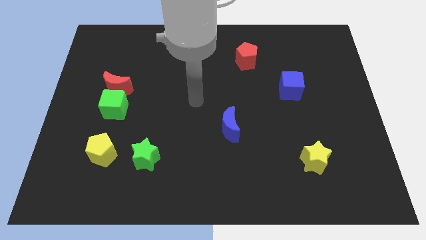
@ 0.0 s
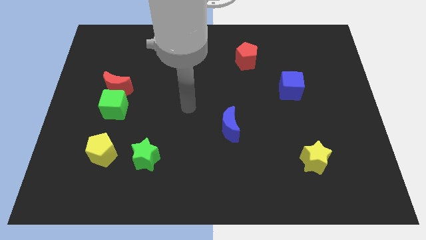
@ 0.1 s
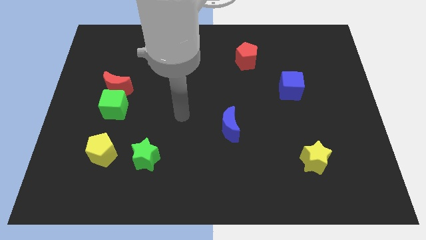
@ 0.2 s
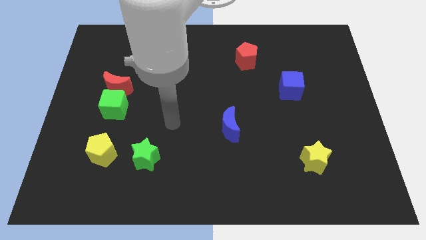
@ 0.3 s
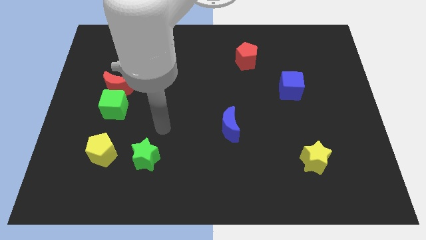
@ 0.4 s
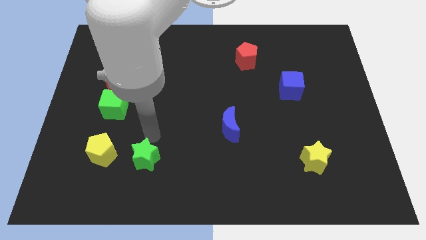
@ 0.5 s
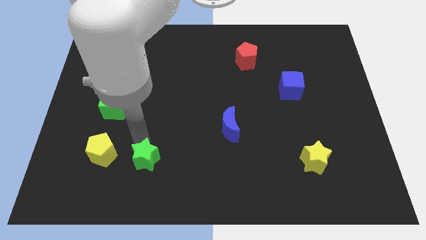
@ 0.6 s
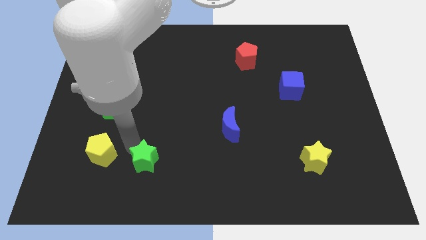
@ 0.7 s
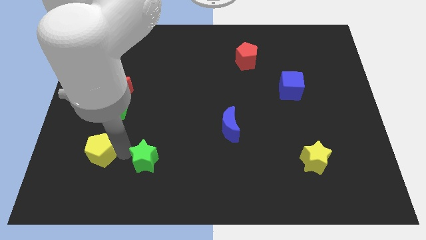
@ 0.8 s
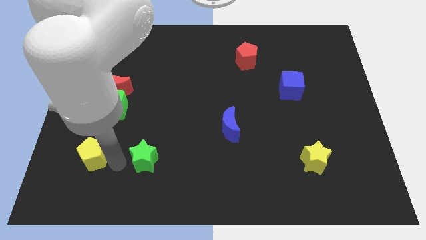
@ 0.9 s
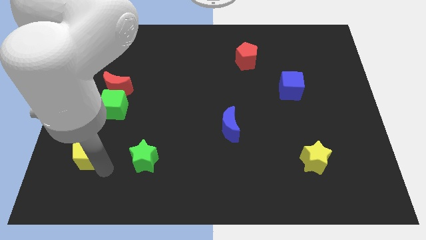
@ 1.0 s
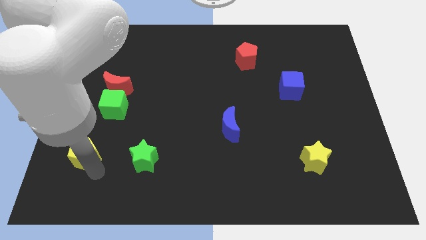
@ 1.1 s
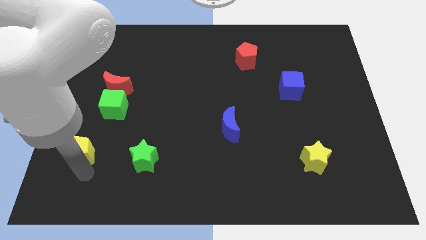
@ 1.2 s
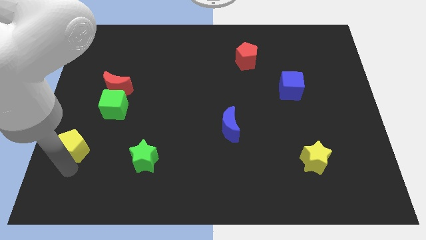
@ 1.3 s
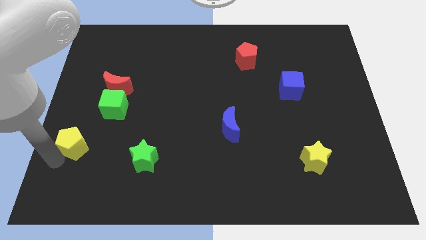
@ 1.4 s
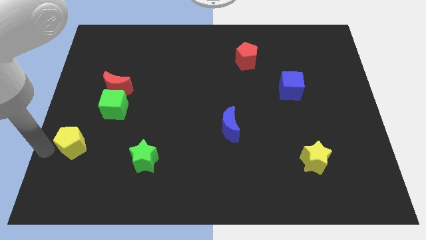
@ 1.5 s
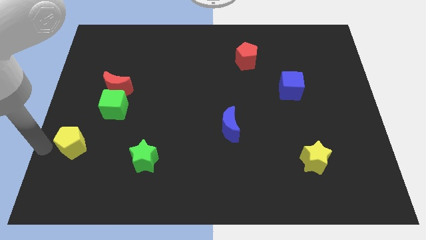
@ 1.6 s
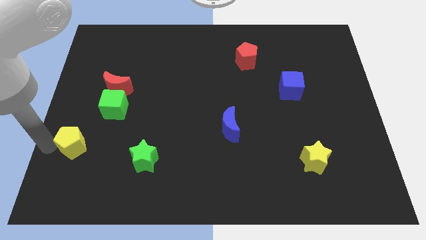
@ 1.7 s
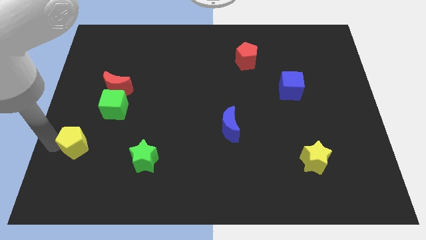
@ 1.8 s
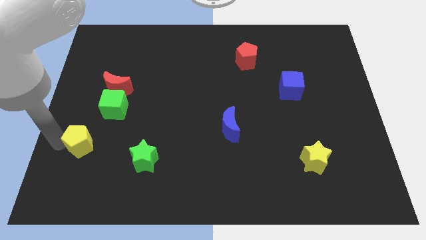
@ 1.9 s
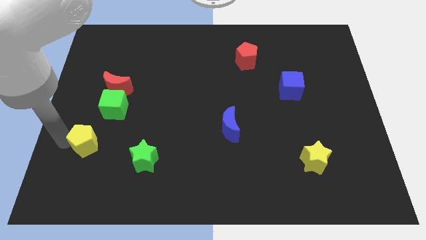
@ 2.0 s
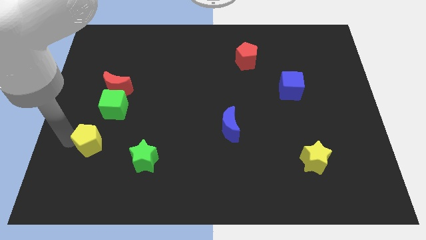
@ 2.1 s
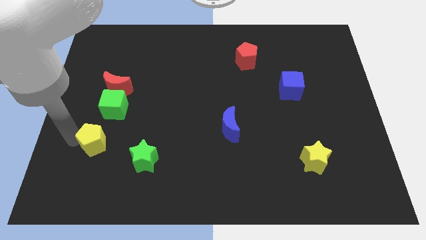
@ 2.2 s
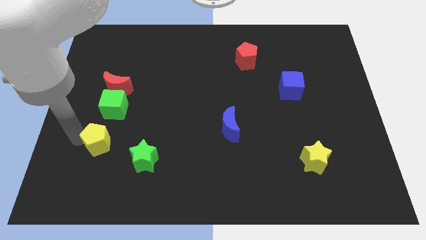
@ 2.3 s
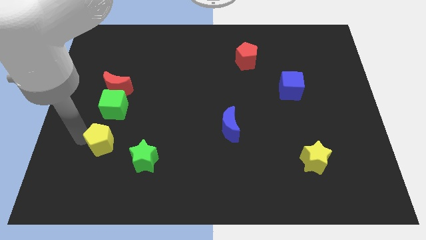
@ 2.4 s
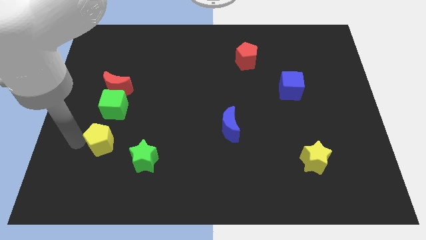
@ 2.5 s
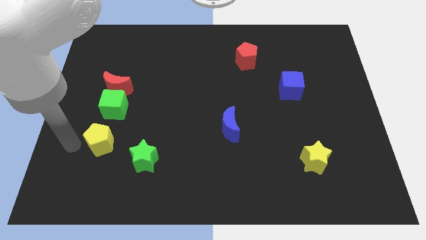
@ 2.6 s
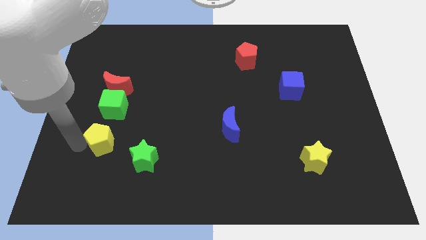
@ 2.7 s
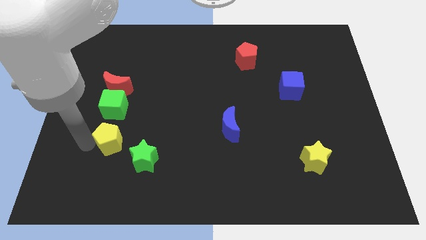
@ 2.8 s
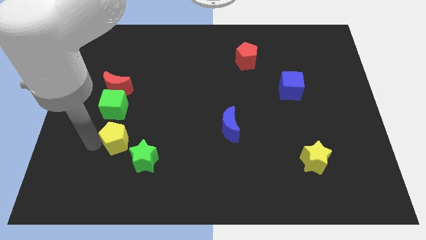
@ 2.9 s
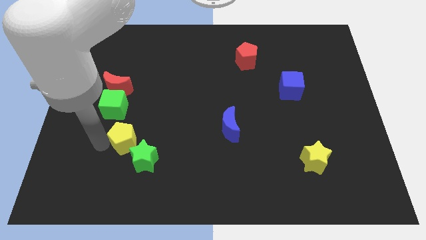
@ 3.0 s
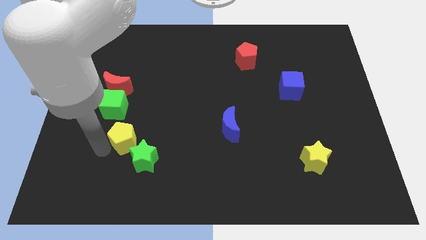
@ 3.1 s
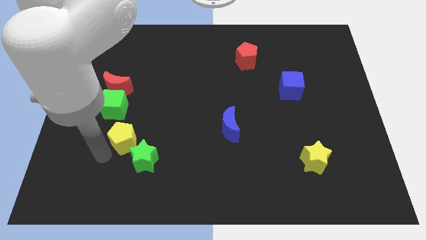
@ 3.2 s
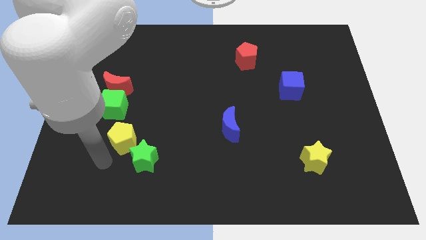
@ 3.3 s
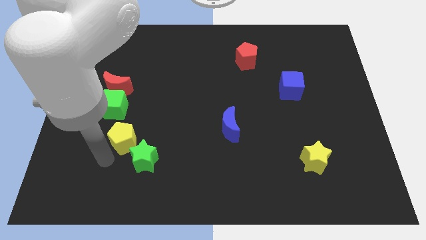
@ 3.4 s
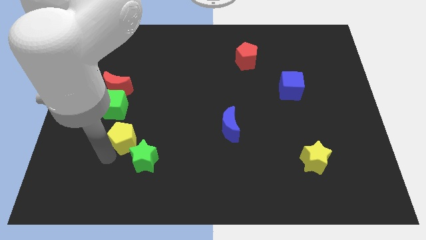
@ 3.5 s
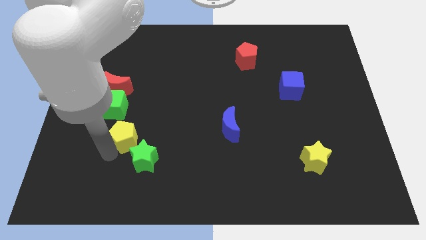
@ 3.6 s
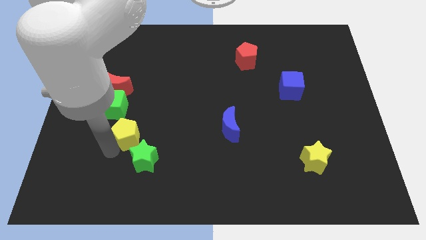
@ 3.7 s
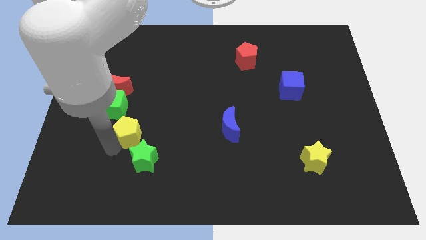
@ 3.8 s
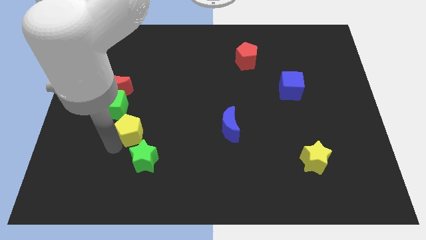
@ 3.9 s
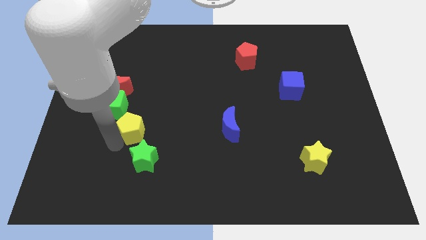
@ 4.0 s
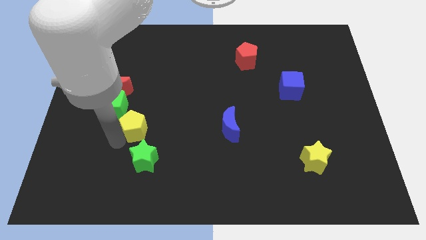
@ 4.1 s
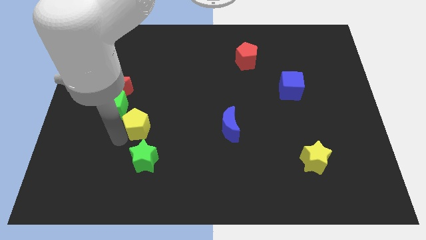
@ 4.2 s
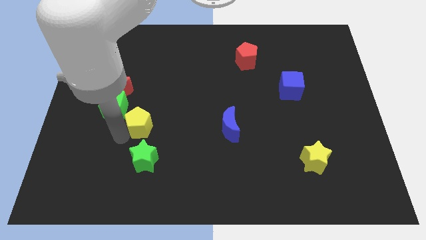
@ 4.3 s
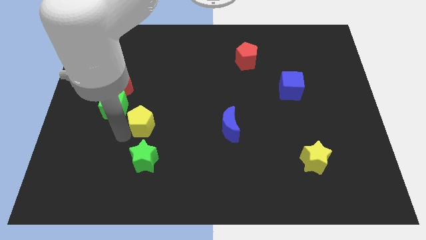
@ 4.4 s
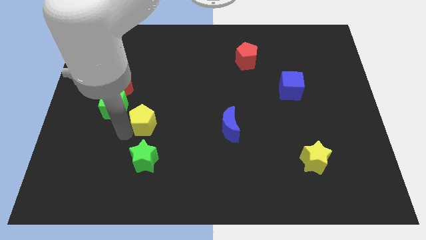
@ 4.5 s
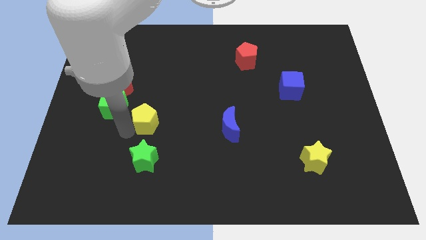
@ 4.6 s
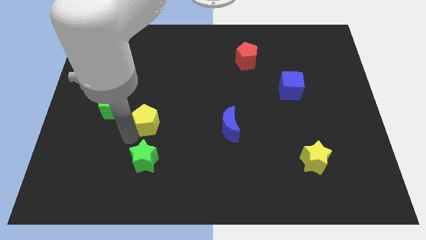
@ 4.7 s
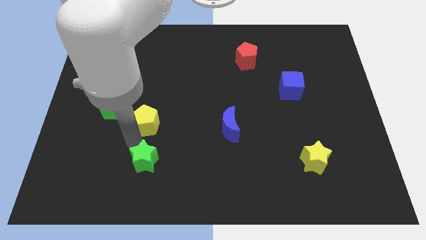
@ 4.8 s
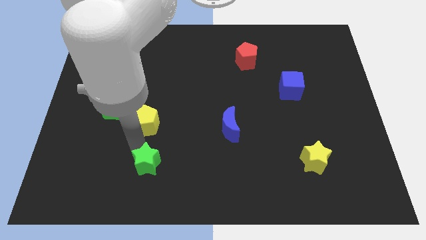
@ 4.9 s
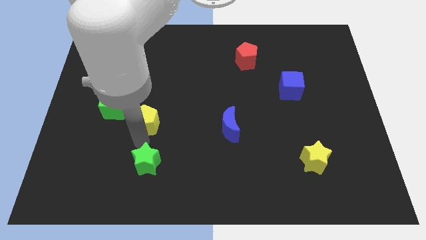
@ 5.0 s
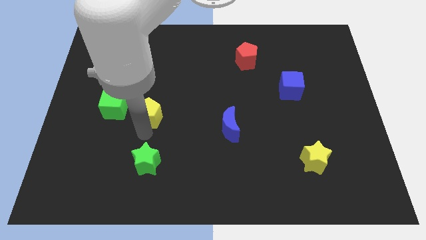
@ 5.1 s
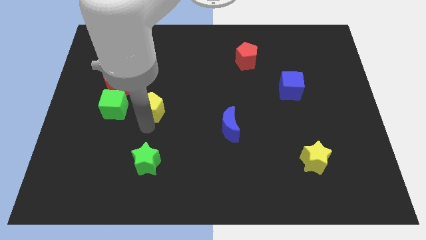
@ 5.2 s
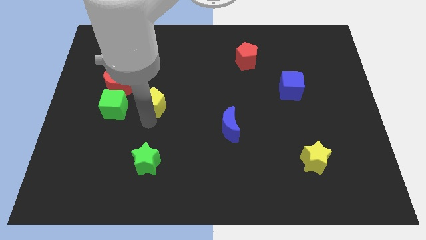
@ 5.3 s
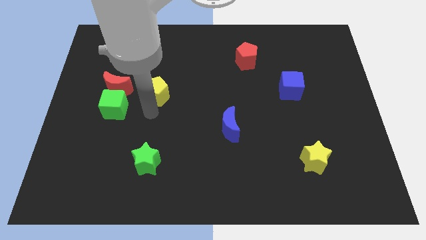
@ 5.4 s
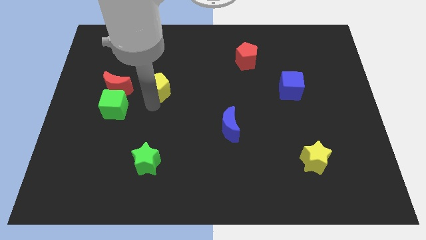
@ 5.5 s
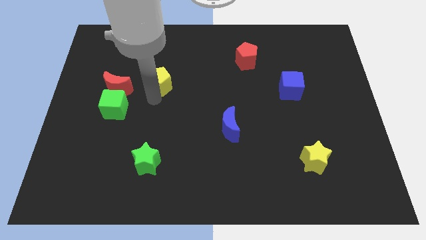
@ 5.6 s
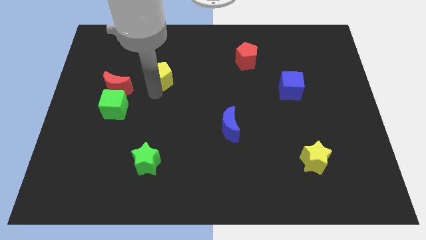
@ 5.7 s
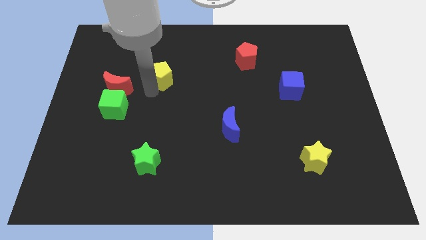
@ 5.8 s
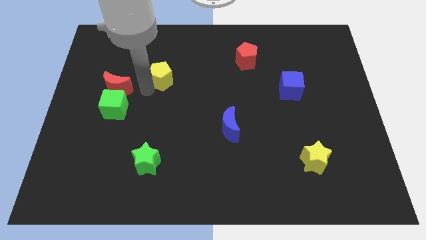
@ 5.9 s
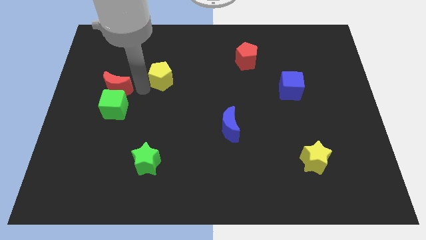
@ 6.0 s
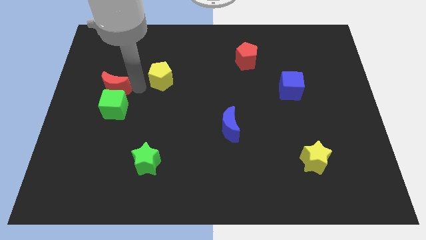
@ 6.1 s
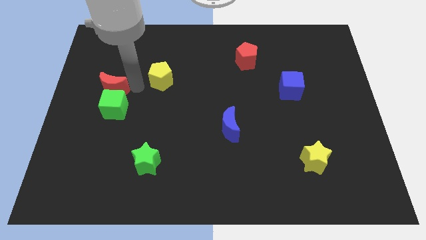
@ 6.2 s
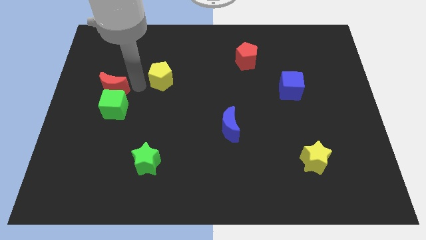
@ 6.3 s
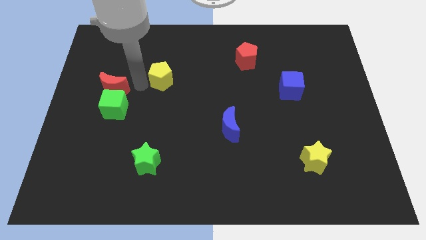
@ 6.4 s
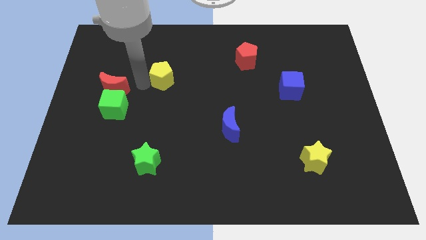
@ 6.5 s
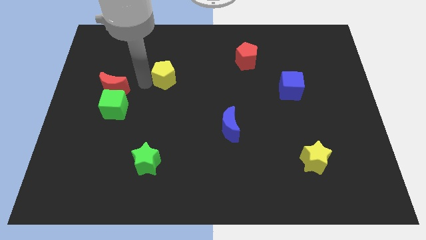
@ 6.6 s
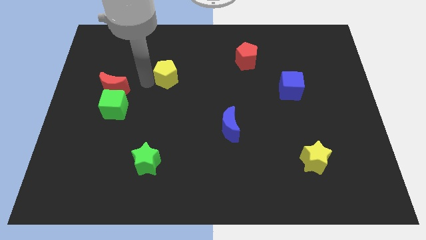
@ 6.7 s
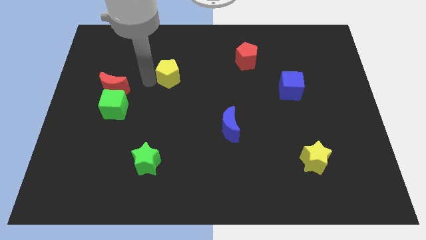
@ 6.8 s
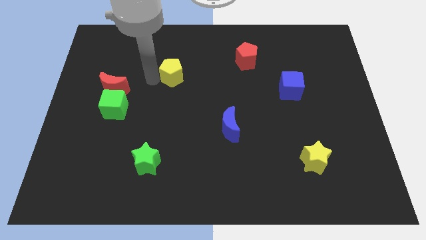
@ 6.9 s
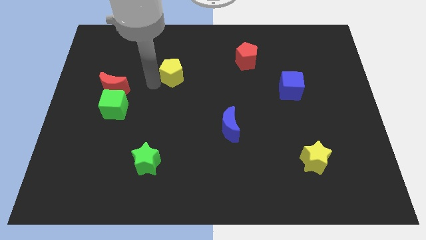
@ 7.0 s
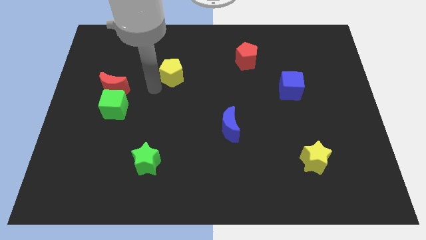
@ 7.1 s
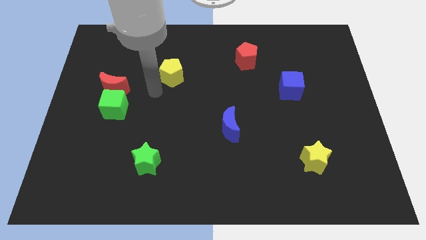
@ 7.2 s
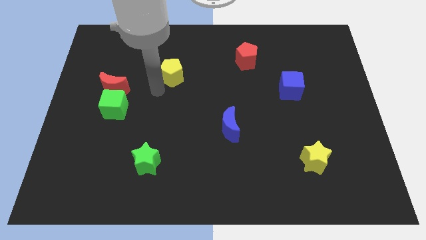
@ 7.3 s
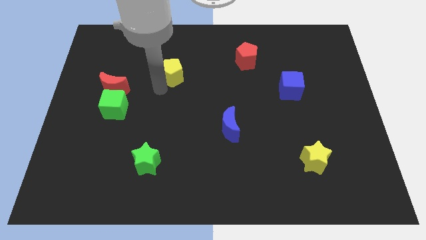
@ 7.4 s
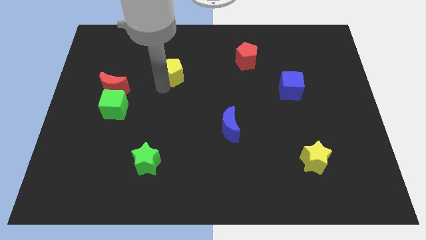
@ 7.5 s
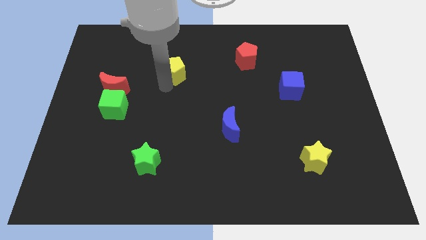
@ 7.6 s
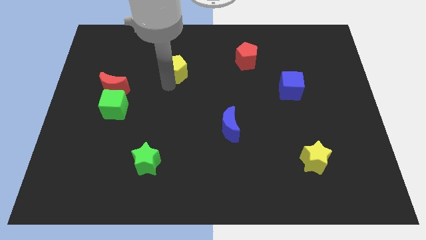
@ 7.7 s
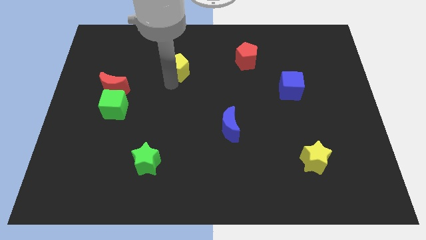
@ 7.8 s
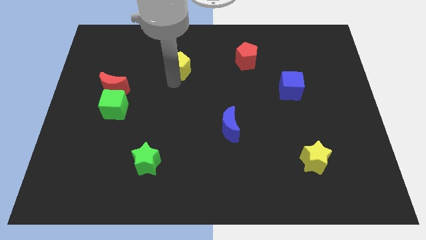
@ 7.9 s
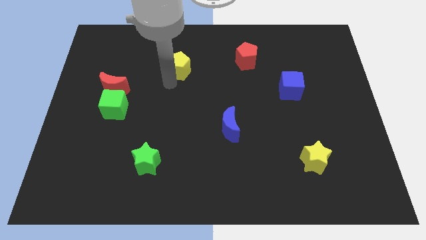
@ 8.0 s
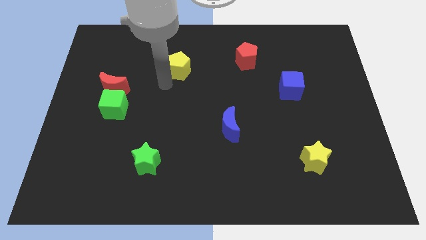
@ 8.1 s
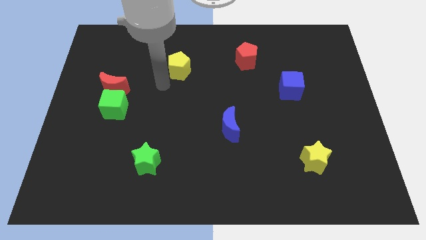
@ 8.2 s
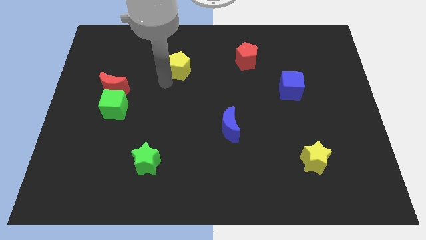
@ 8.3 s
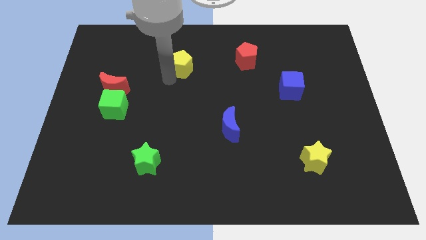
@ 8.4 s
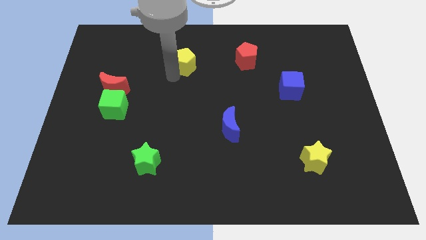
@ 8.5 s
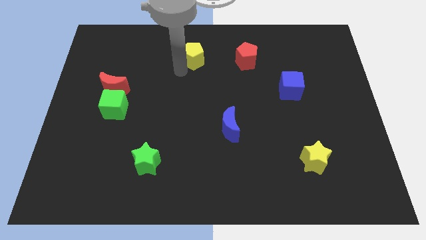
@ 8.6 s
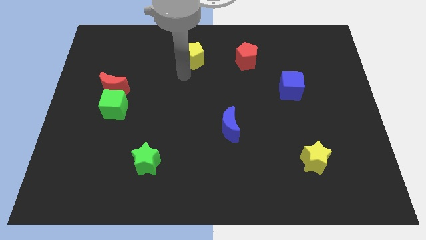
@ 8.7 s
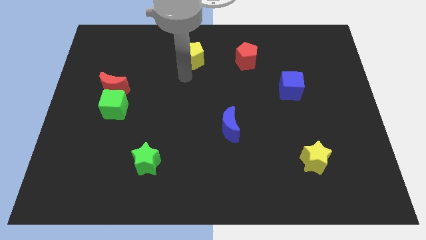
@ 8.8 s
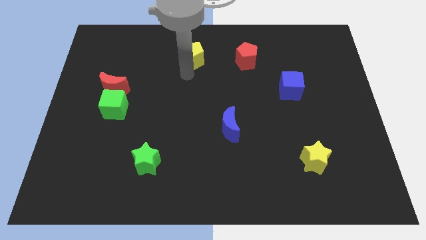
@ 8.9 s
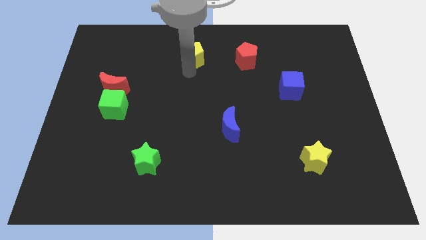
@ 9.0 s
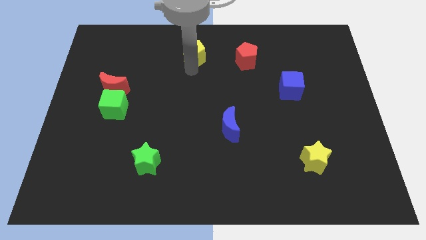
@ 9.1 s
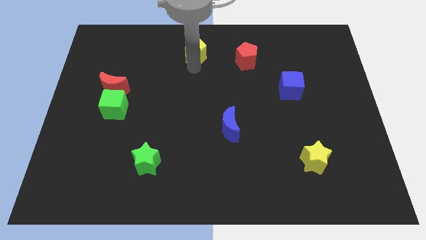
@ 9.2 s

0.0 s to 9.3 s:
slide the yellow pentagon to the top side
